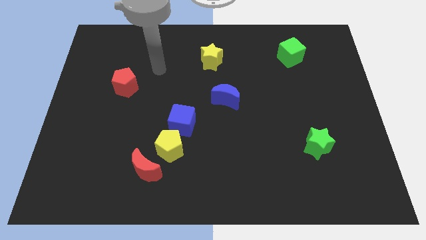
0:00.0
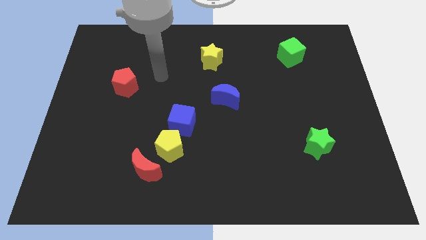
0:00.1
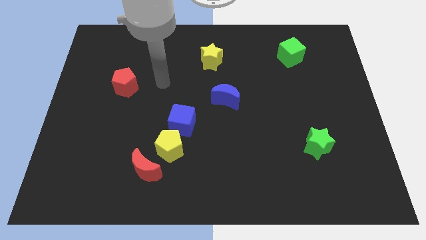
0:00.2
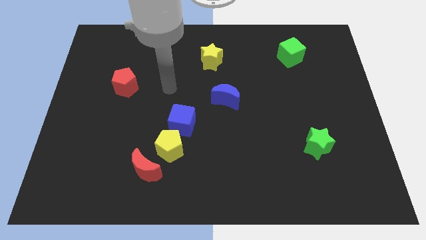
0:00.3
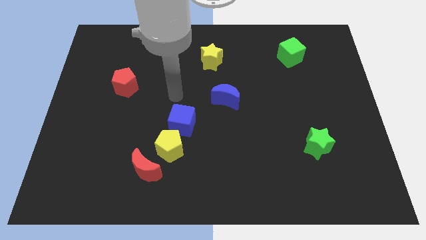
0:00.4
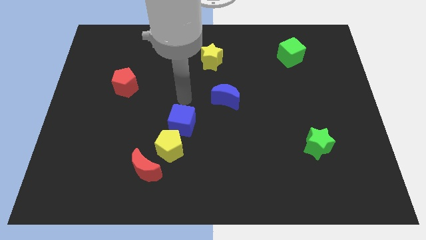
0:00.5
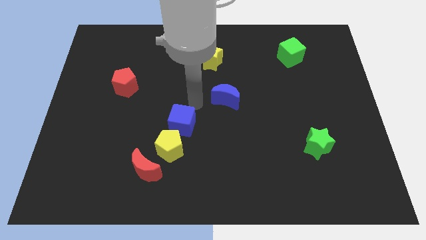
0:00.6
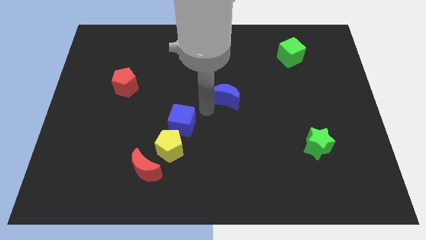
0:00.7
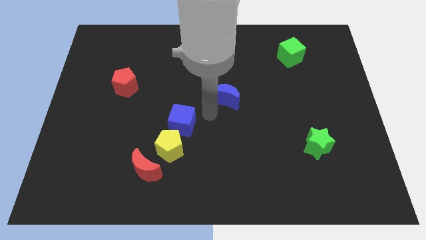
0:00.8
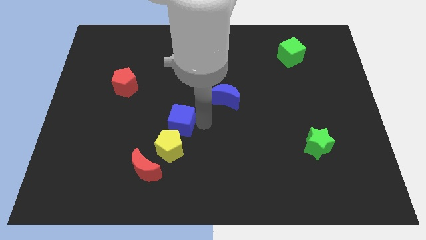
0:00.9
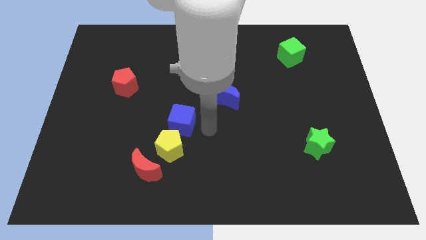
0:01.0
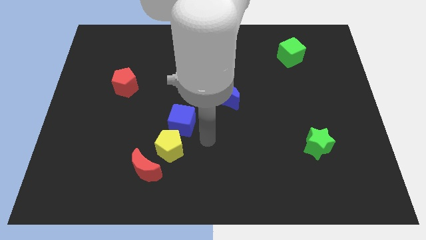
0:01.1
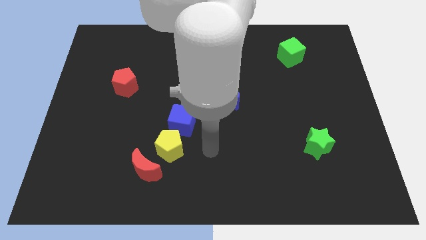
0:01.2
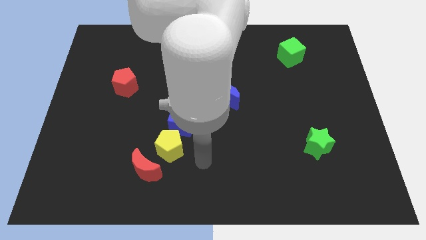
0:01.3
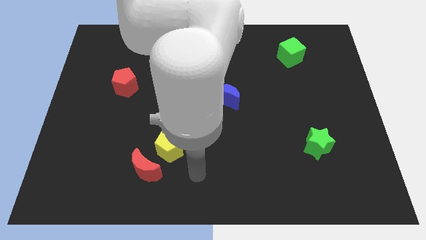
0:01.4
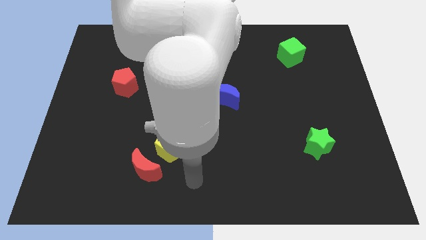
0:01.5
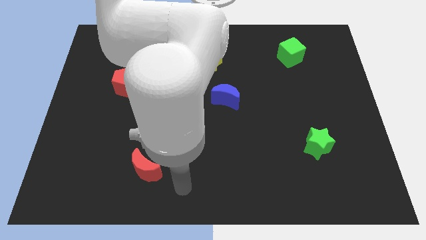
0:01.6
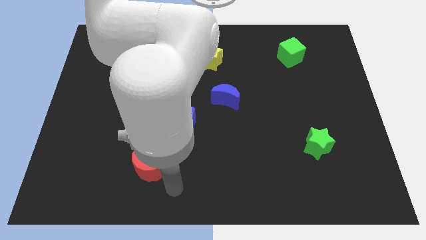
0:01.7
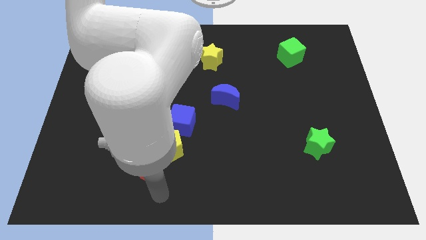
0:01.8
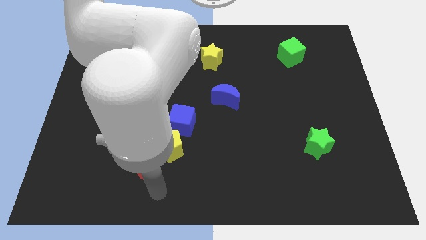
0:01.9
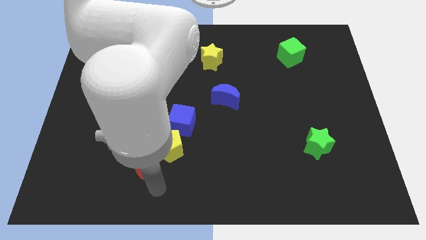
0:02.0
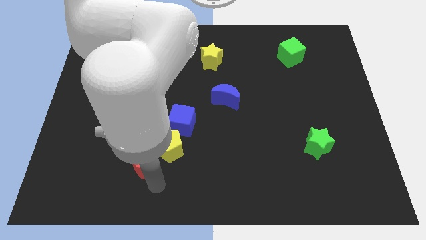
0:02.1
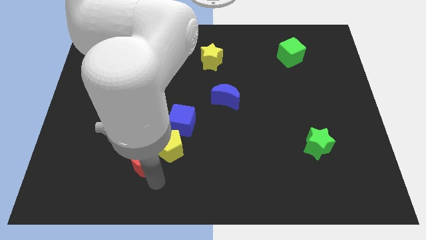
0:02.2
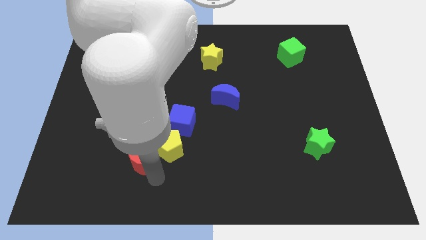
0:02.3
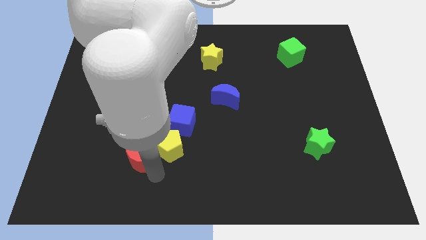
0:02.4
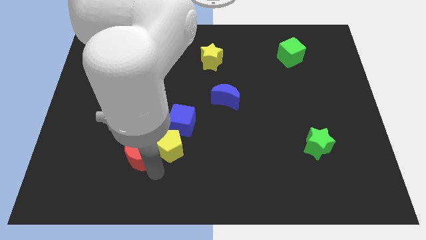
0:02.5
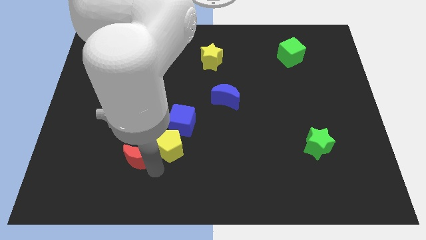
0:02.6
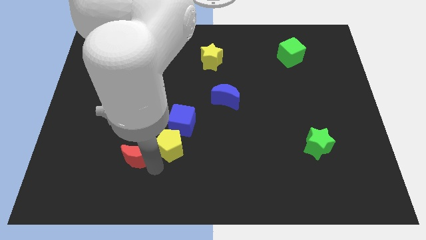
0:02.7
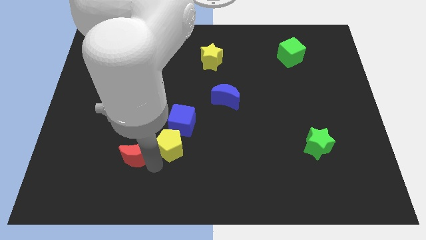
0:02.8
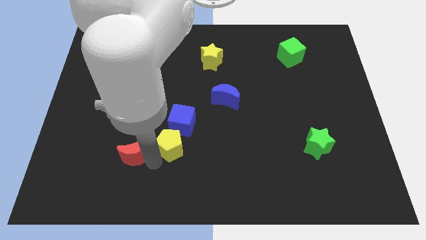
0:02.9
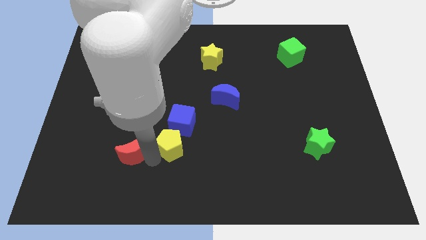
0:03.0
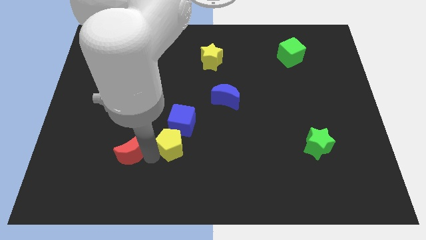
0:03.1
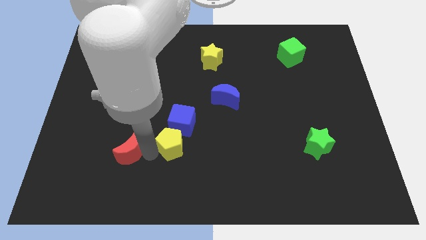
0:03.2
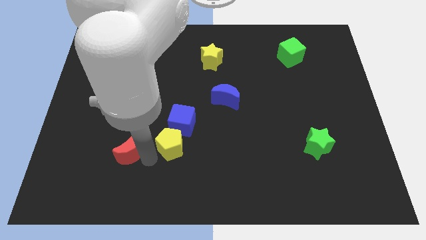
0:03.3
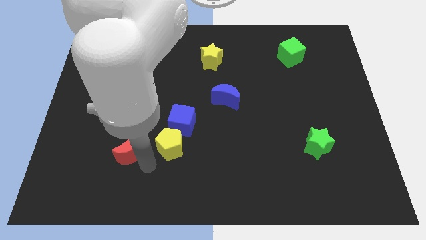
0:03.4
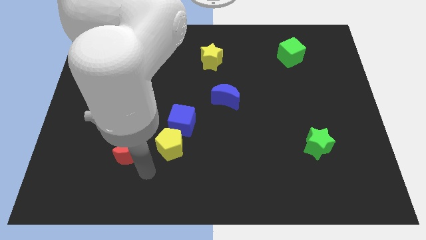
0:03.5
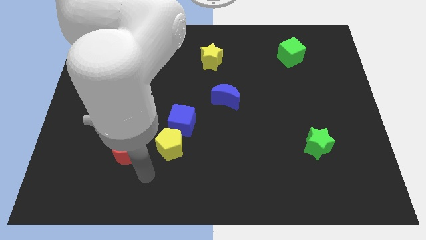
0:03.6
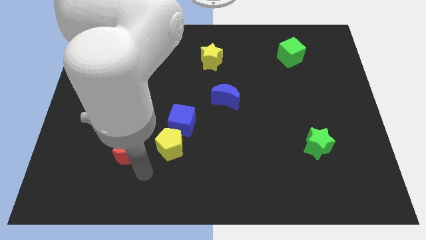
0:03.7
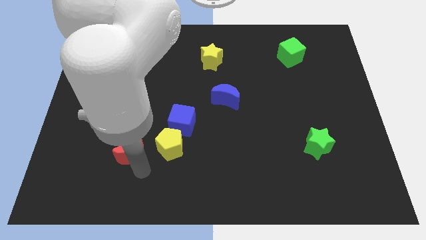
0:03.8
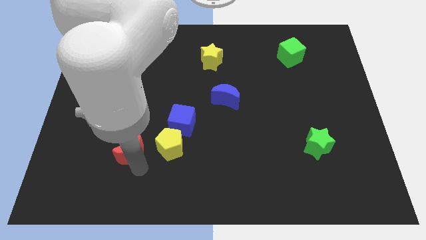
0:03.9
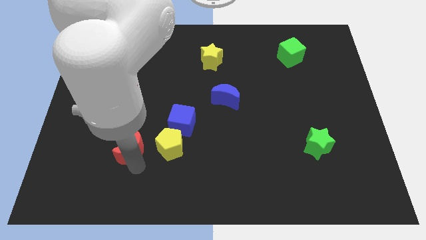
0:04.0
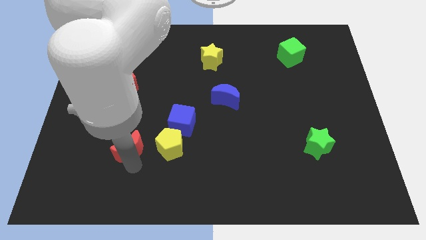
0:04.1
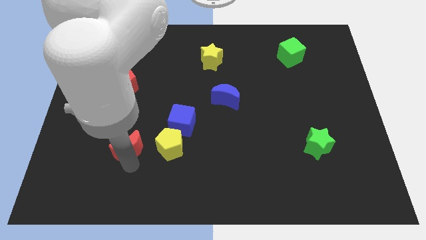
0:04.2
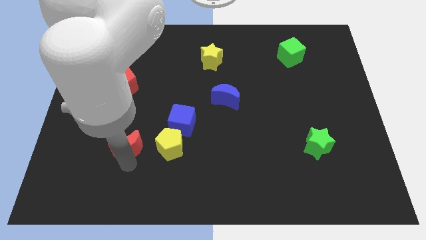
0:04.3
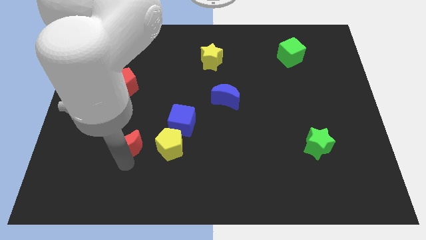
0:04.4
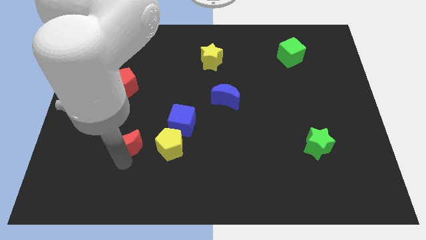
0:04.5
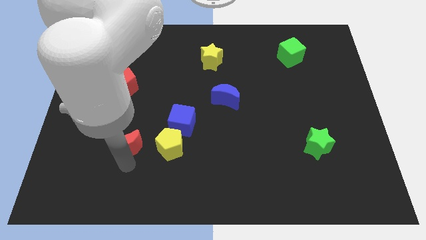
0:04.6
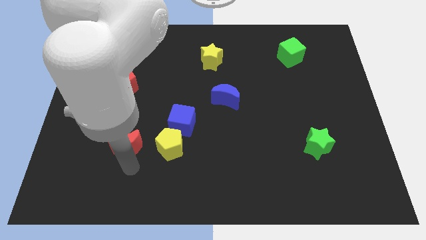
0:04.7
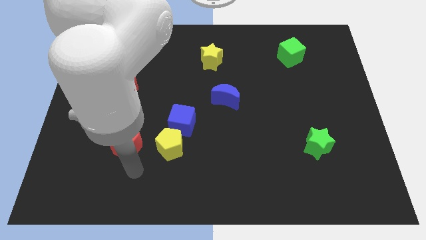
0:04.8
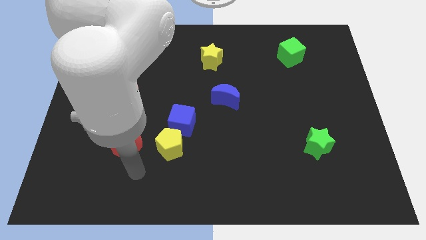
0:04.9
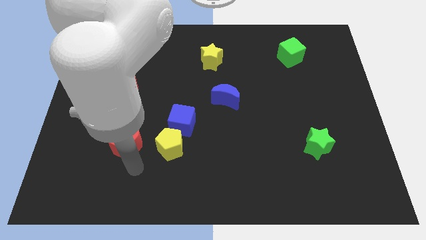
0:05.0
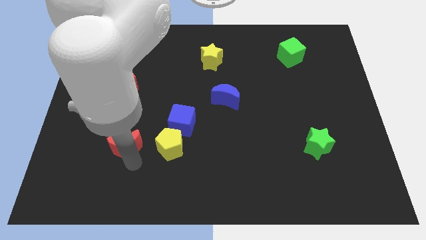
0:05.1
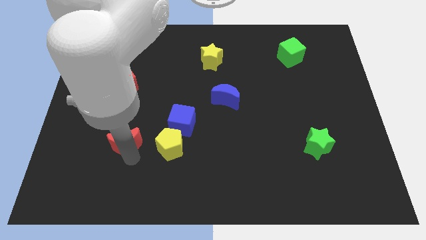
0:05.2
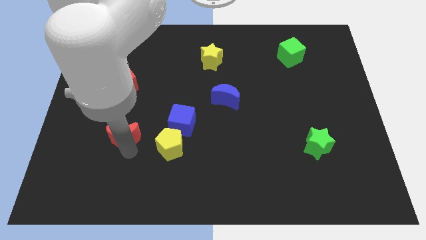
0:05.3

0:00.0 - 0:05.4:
put the red moon below the red pentagon
